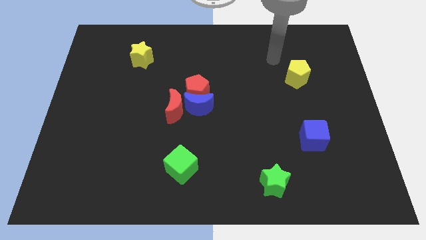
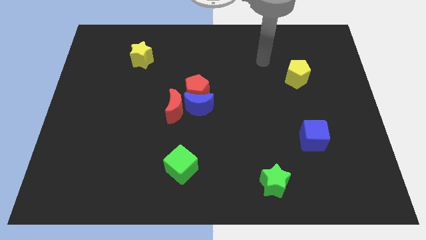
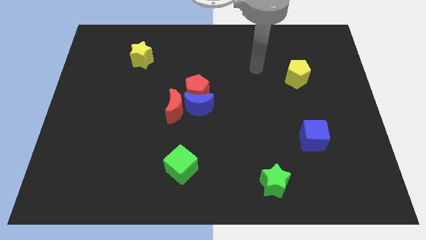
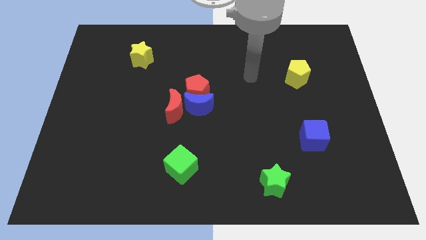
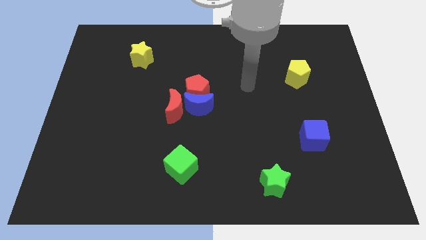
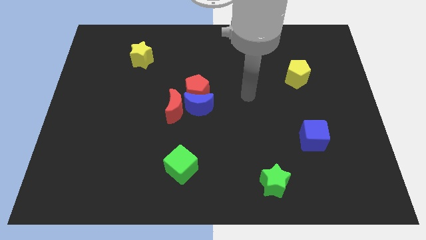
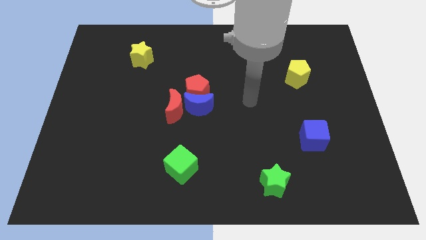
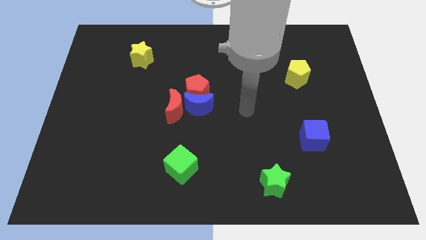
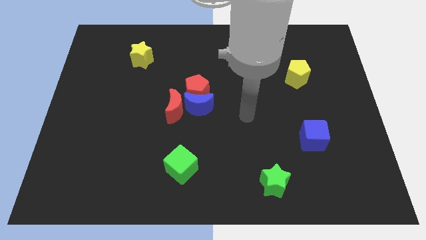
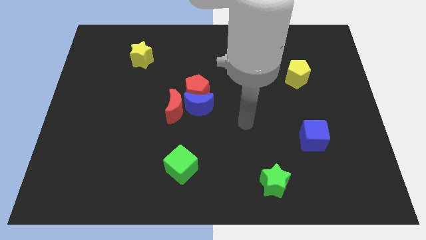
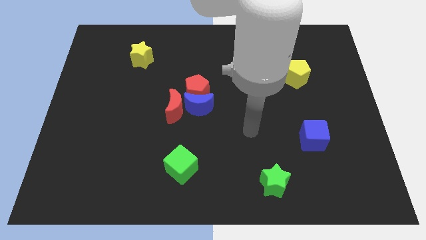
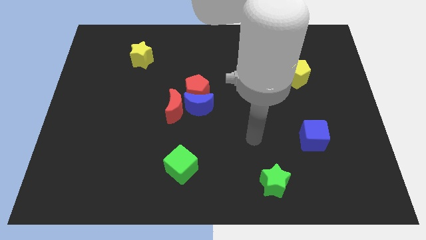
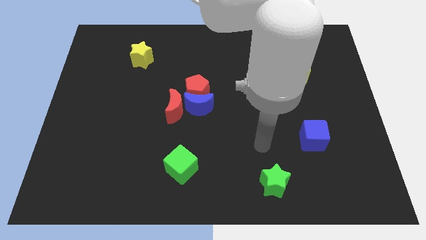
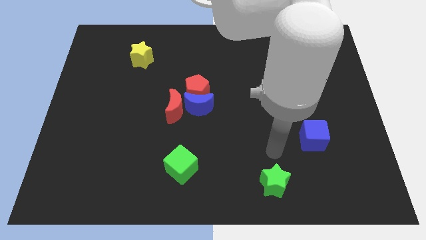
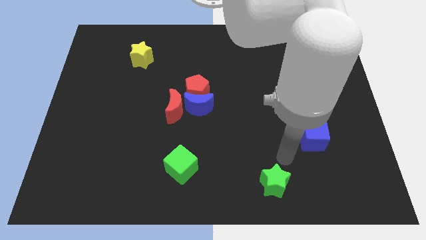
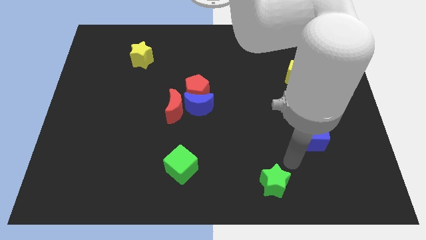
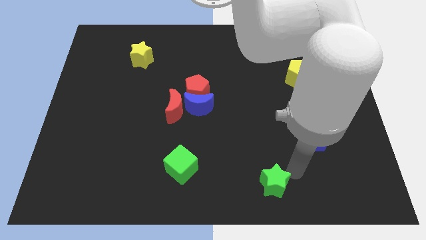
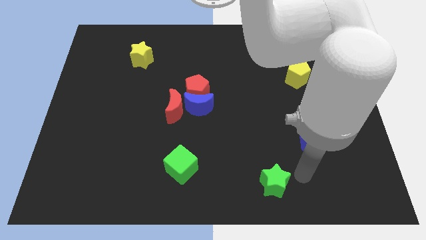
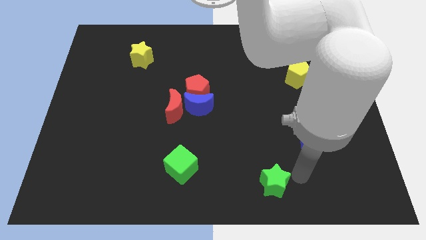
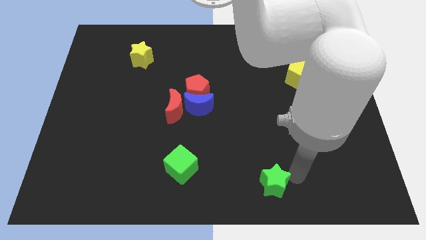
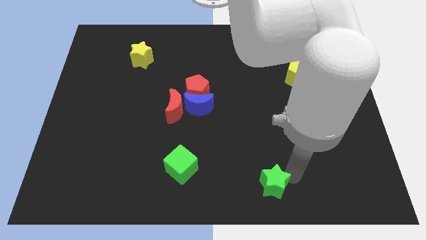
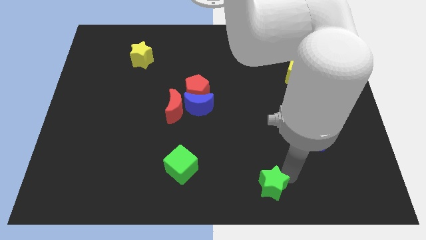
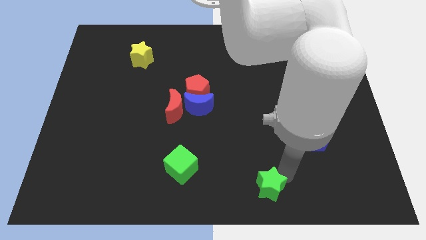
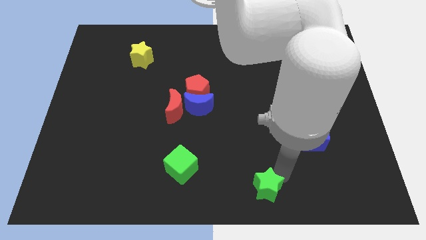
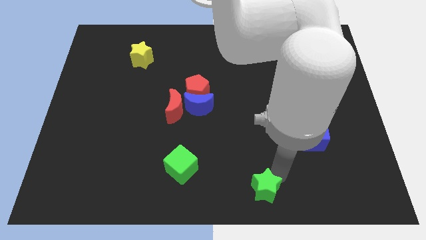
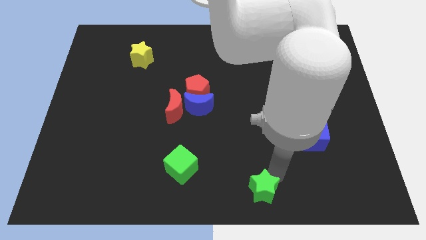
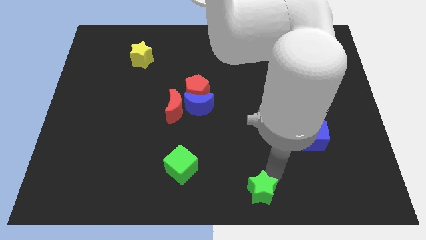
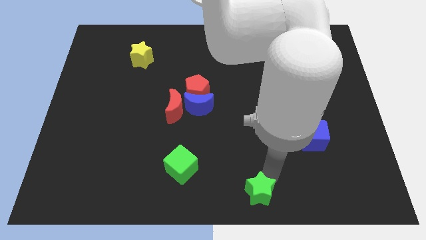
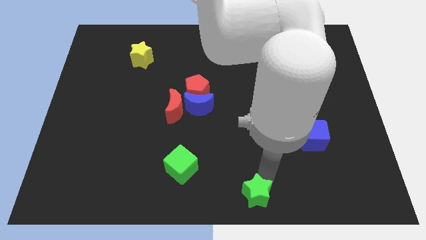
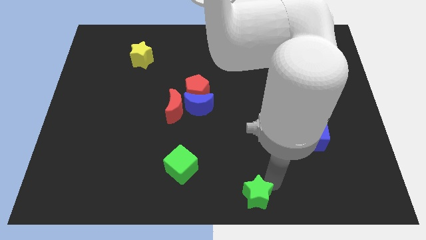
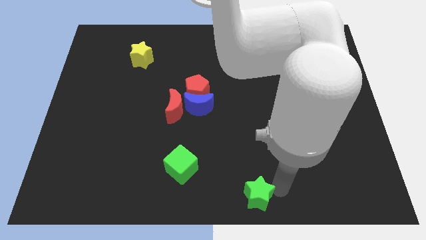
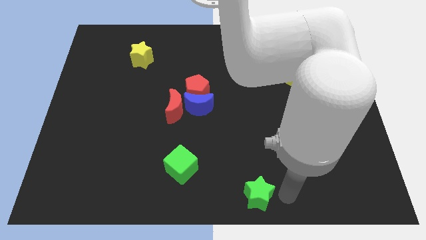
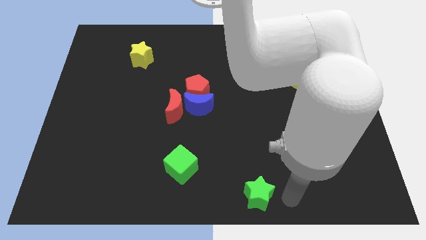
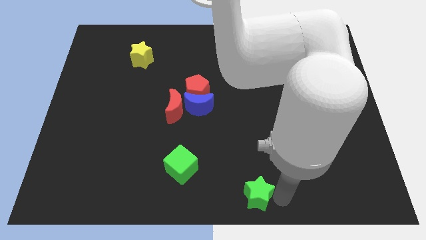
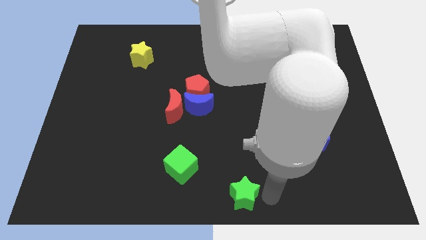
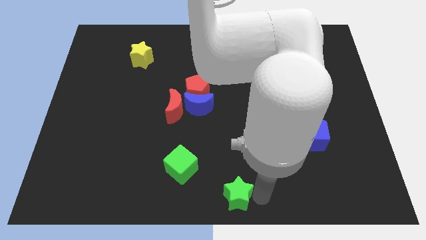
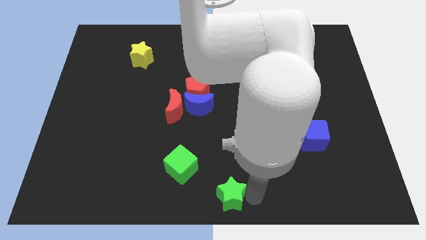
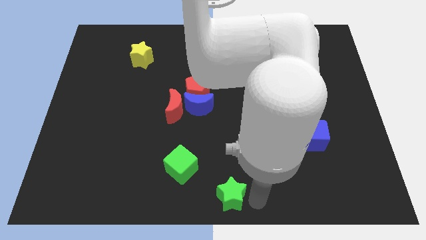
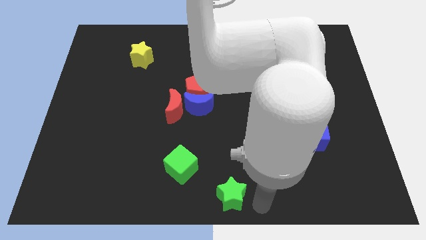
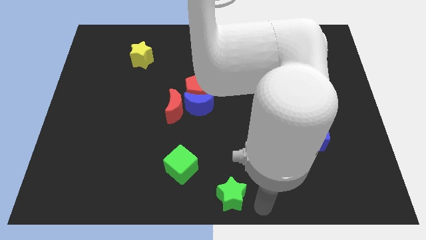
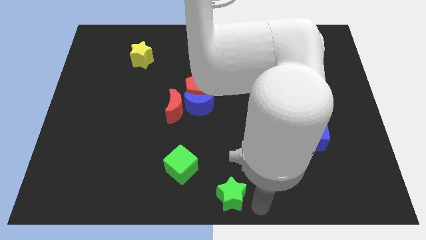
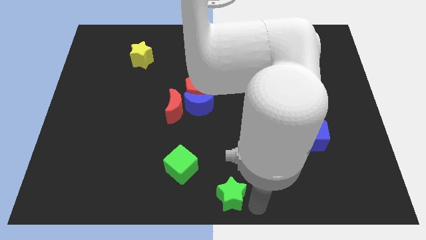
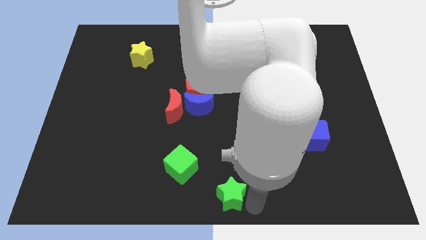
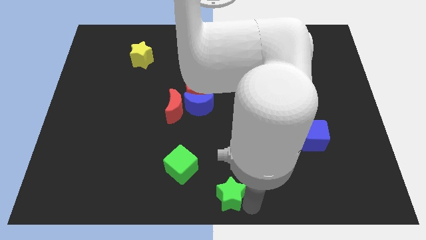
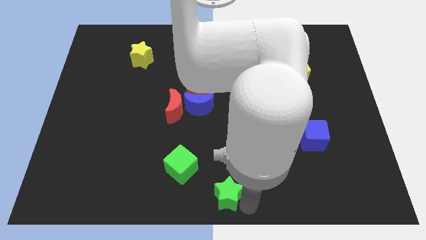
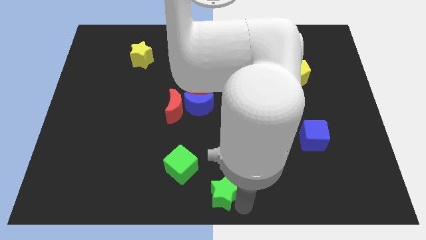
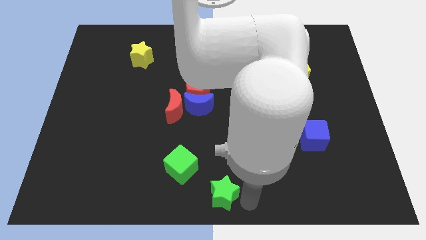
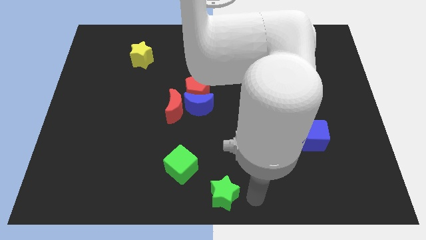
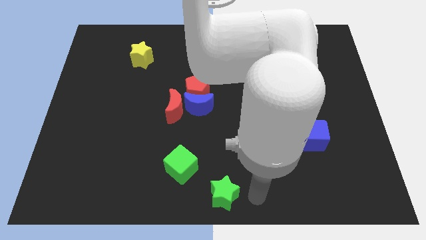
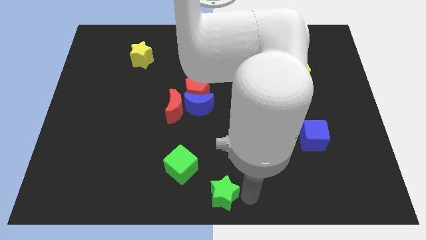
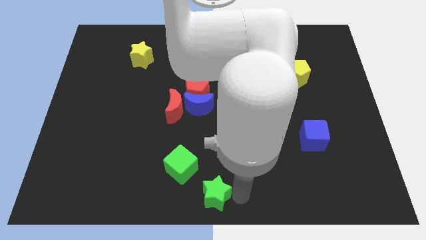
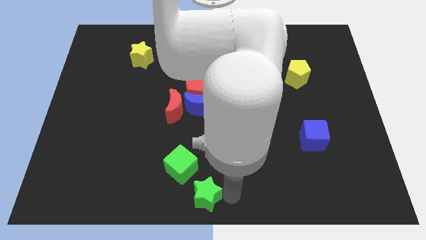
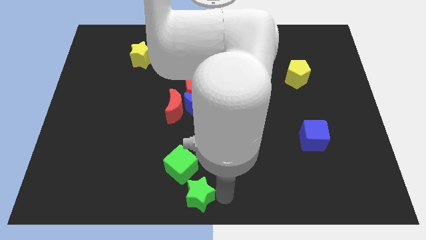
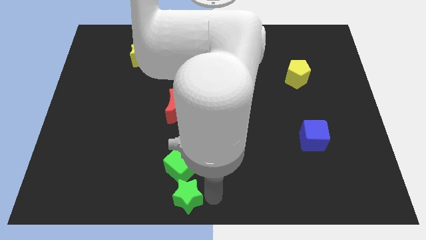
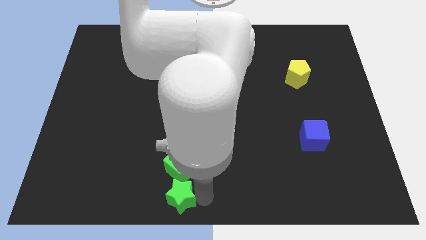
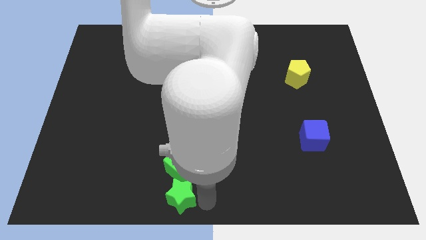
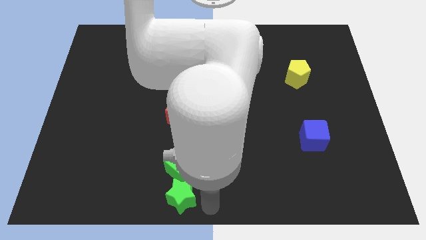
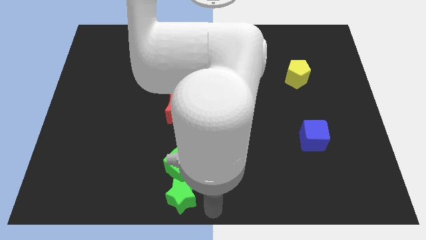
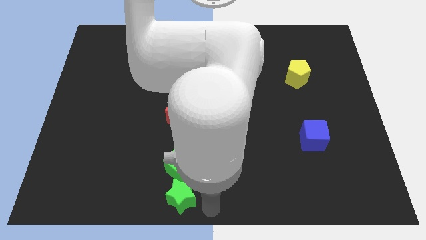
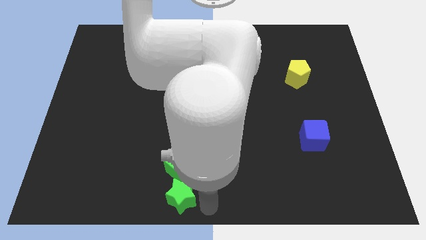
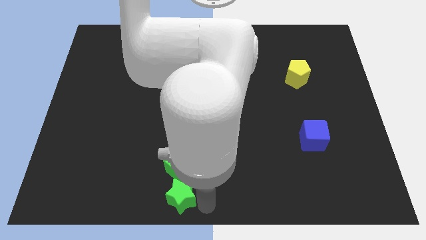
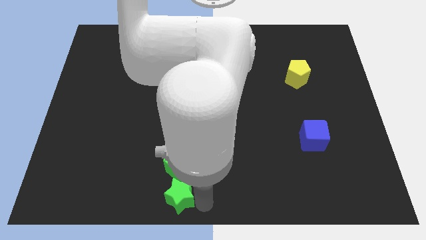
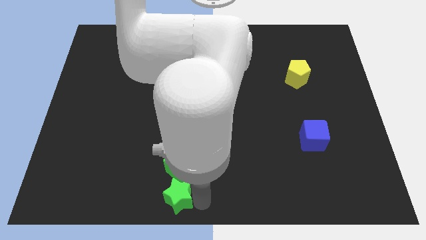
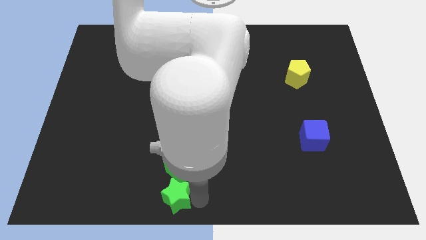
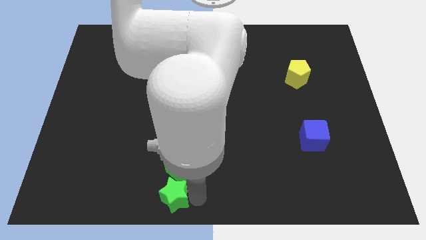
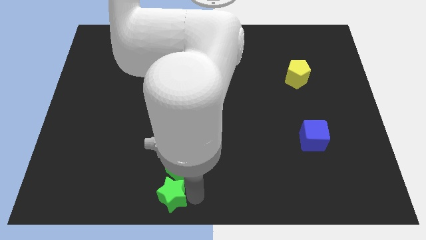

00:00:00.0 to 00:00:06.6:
slide the green star left

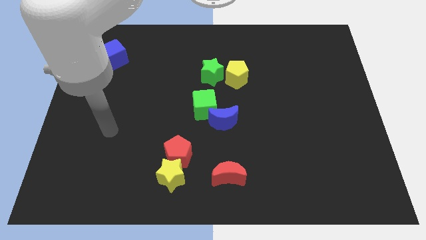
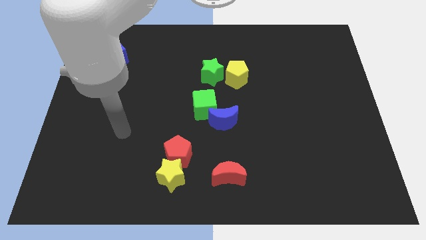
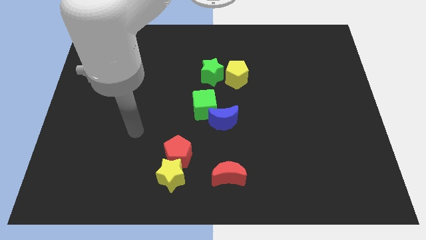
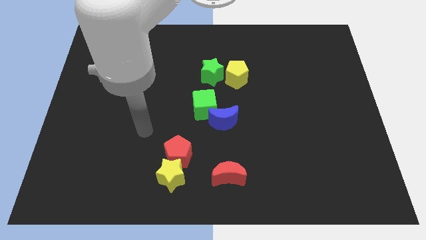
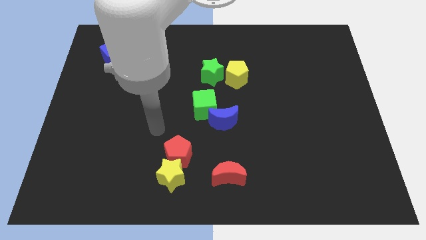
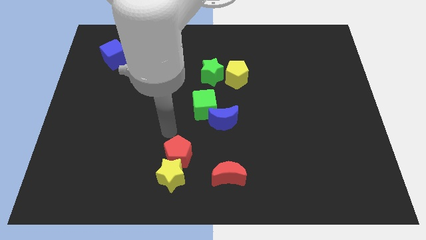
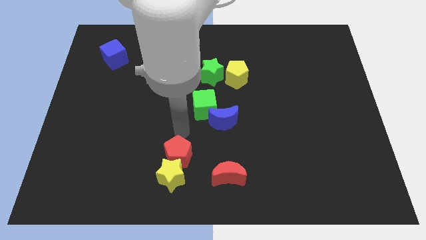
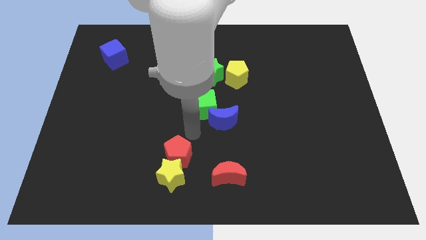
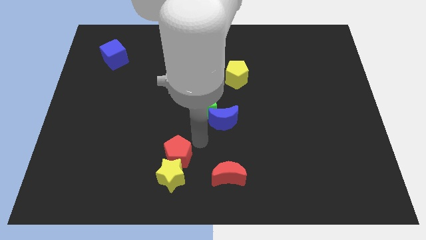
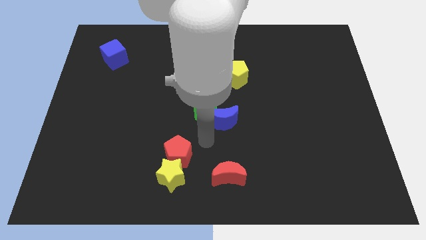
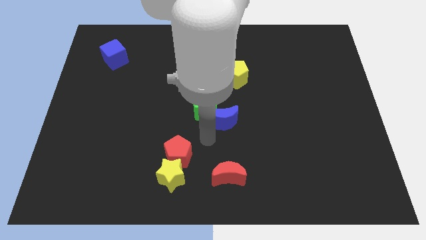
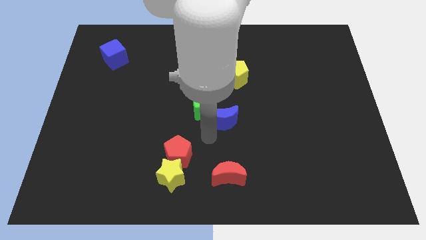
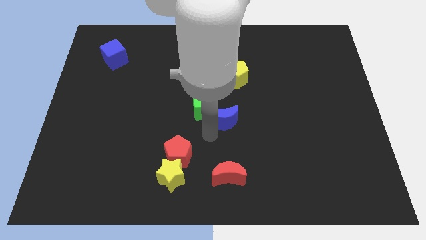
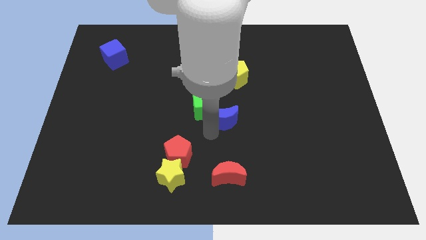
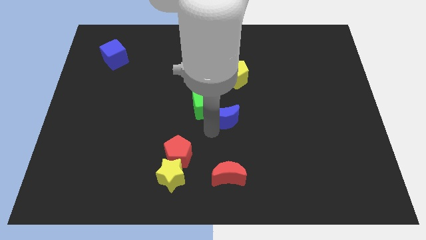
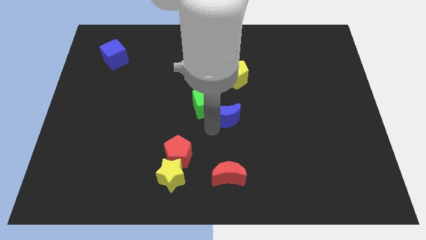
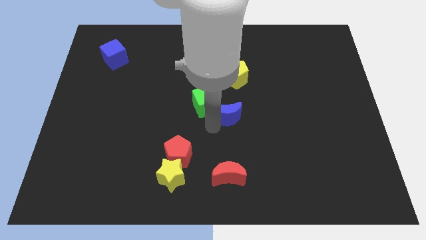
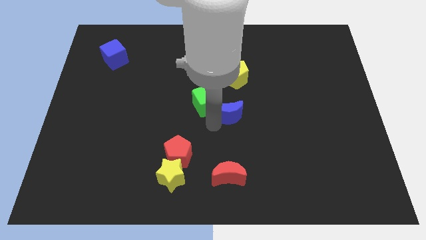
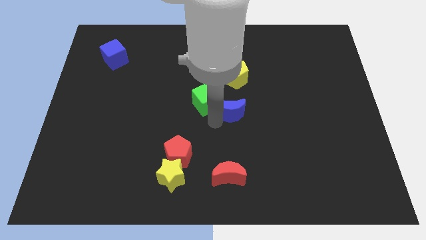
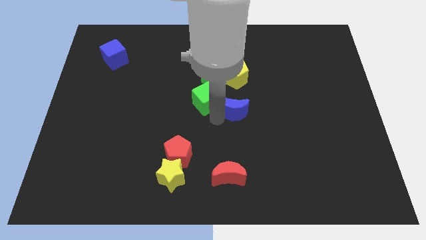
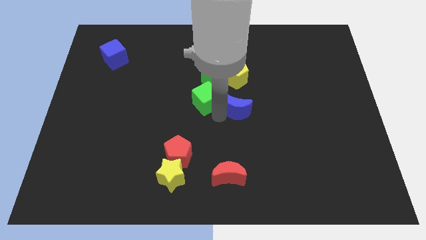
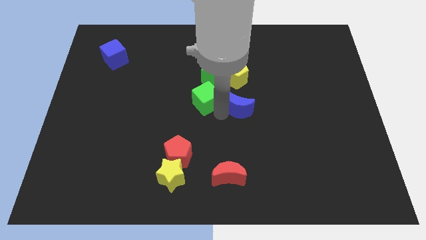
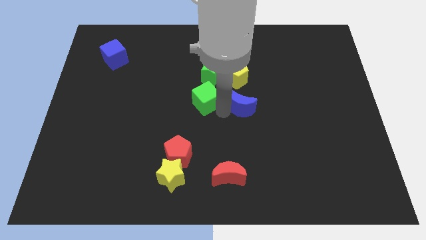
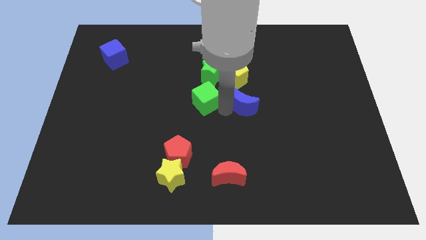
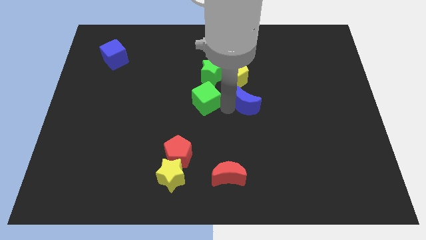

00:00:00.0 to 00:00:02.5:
slightly move the blue moon diagonally upwards and to the right
